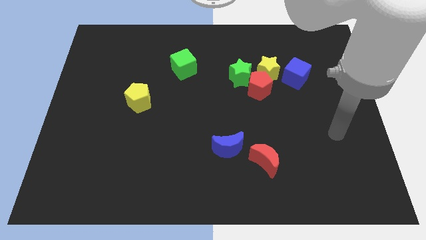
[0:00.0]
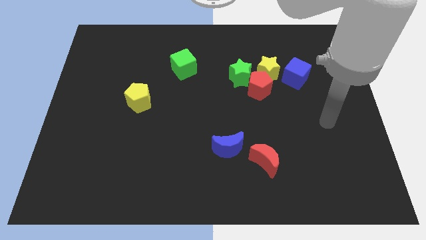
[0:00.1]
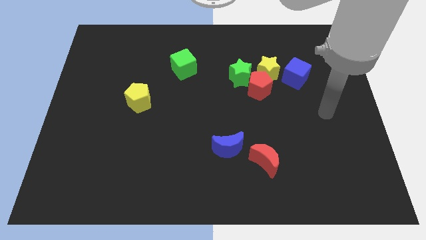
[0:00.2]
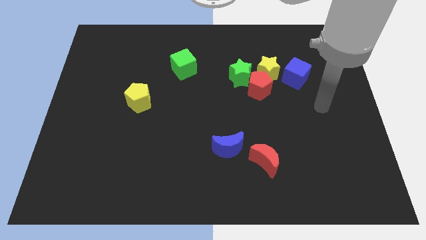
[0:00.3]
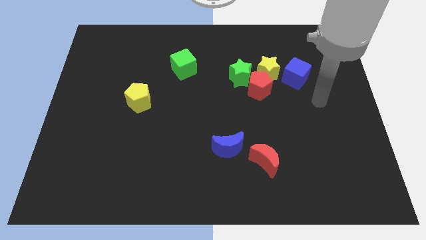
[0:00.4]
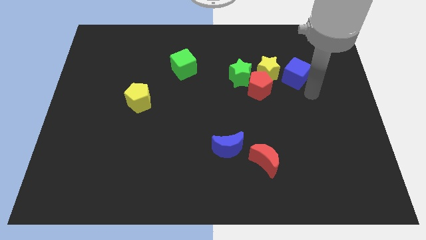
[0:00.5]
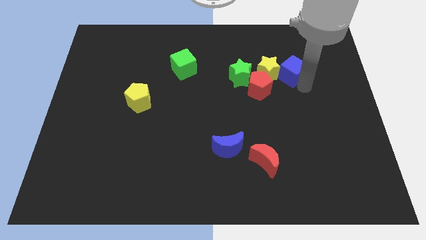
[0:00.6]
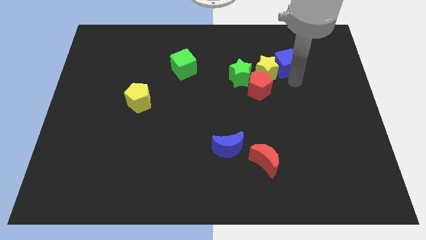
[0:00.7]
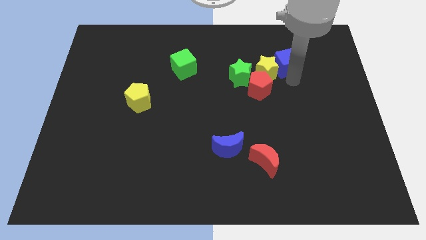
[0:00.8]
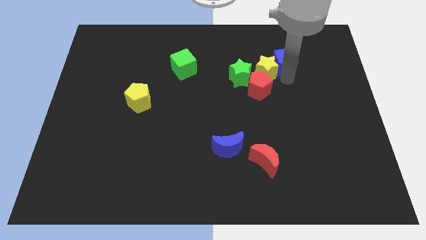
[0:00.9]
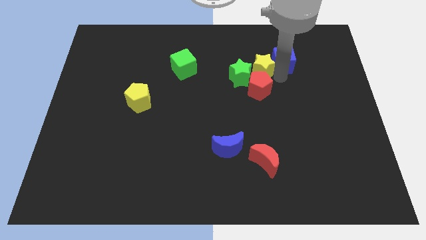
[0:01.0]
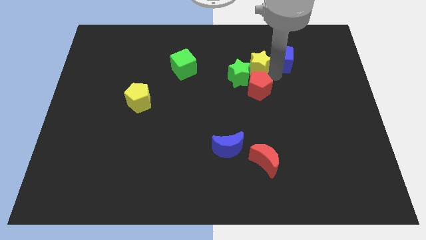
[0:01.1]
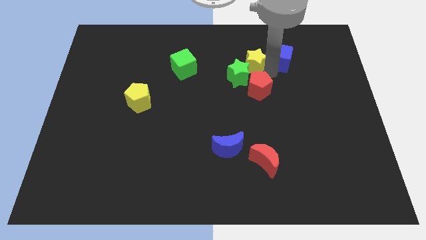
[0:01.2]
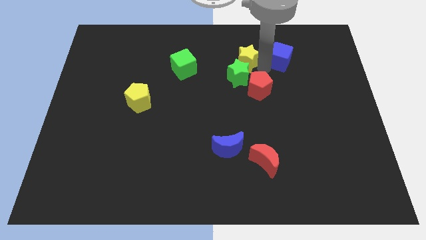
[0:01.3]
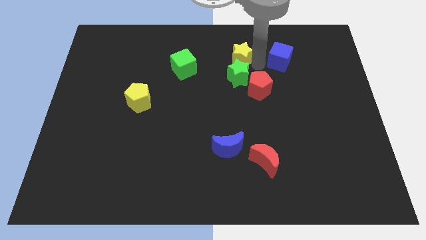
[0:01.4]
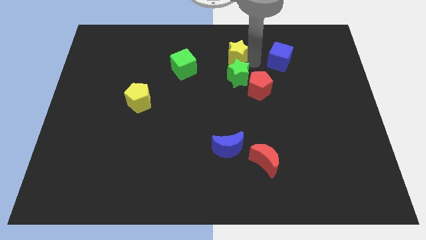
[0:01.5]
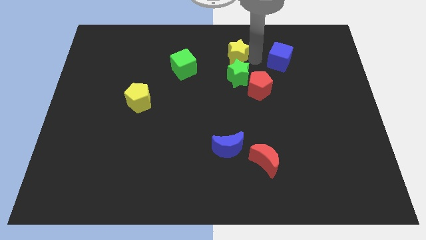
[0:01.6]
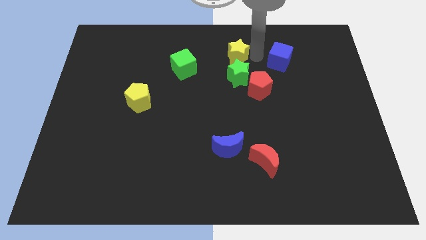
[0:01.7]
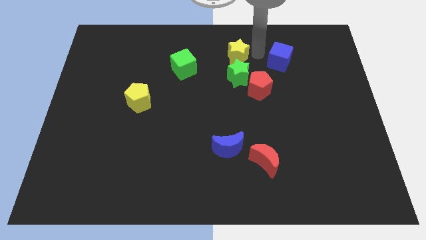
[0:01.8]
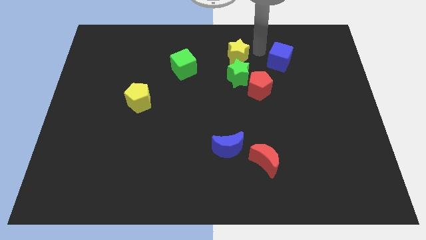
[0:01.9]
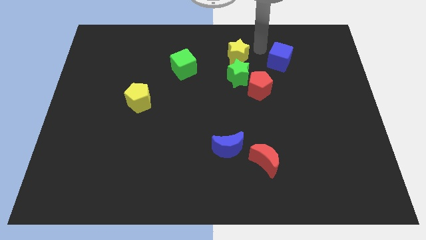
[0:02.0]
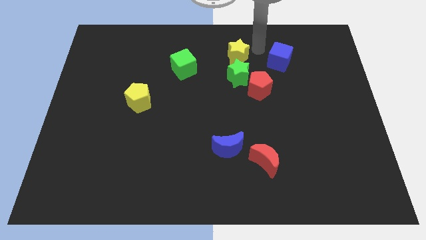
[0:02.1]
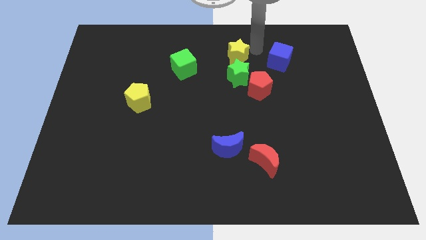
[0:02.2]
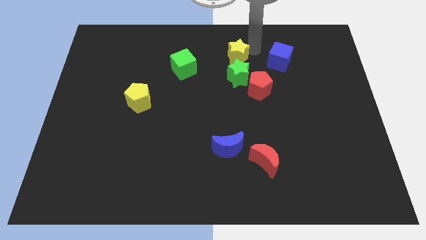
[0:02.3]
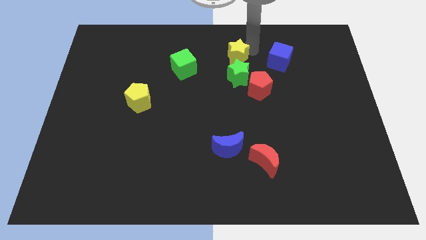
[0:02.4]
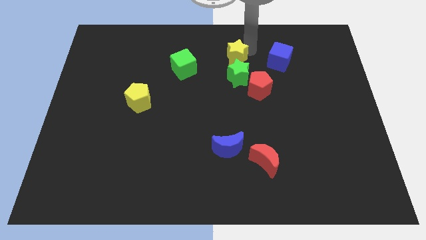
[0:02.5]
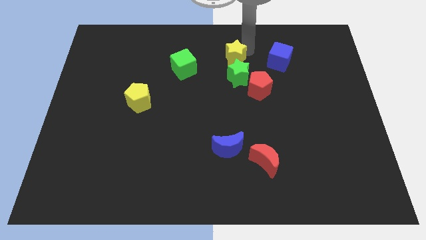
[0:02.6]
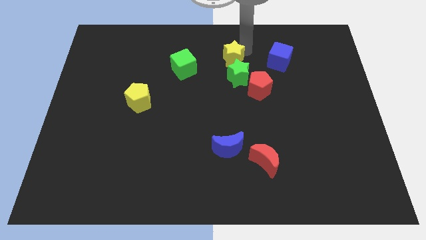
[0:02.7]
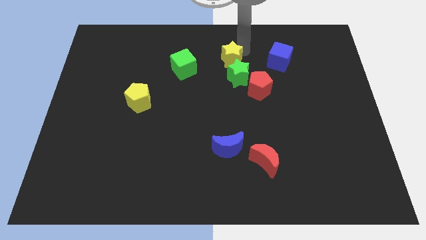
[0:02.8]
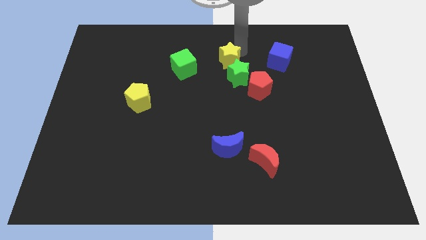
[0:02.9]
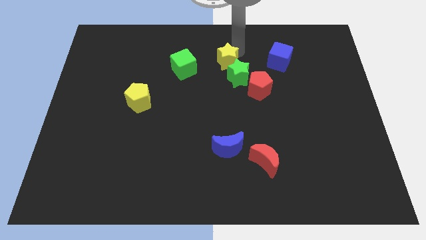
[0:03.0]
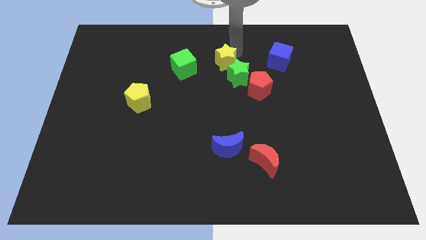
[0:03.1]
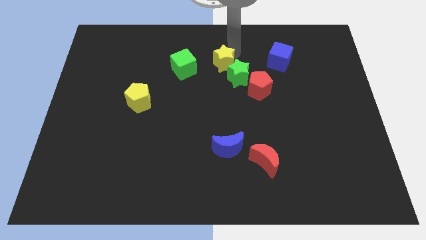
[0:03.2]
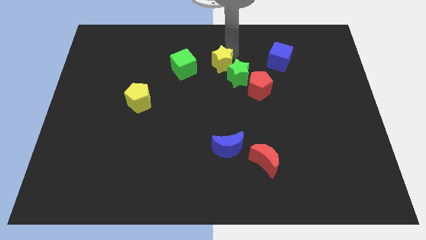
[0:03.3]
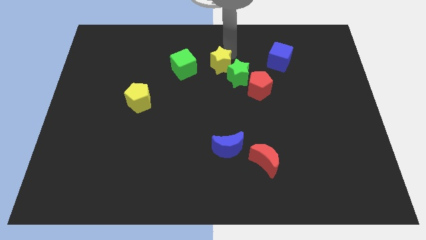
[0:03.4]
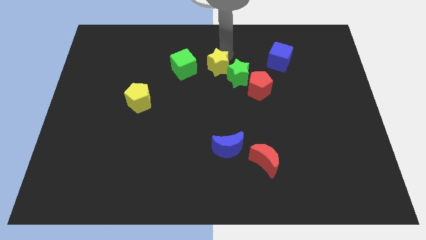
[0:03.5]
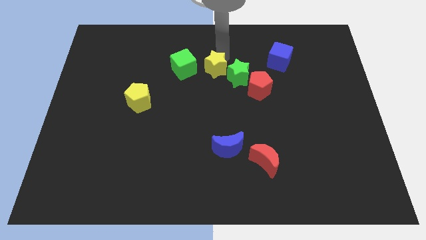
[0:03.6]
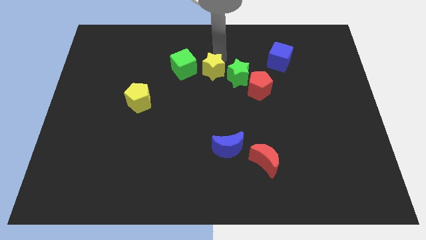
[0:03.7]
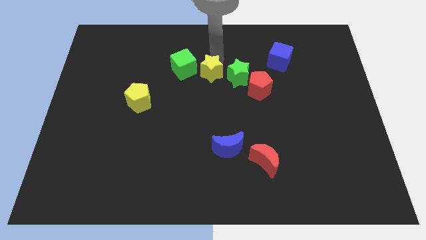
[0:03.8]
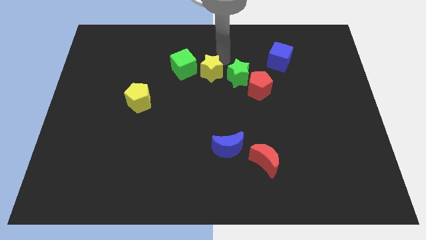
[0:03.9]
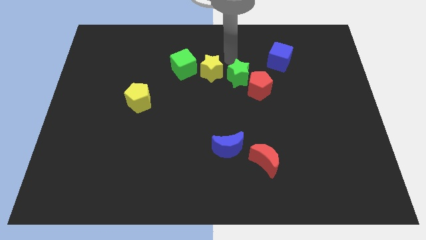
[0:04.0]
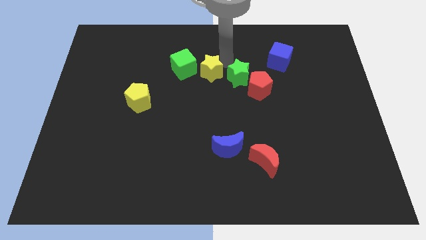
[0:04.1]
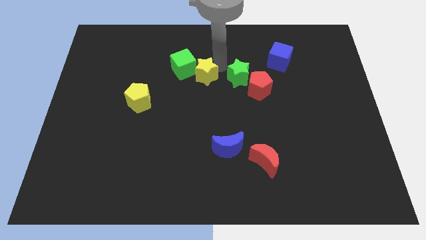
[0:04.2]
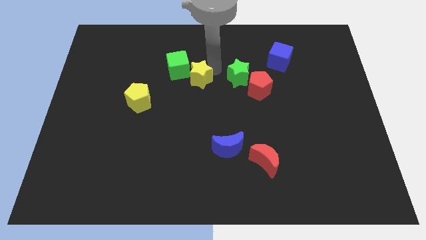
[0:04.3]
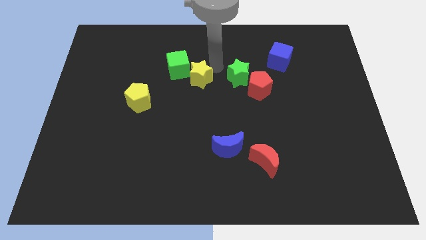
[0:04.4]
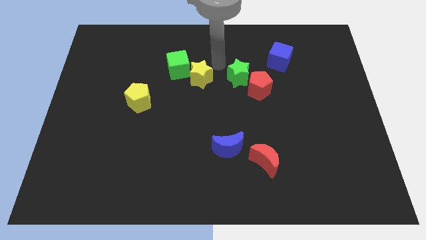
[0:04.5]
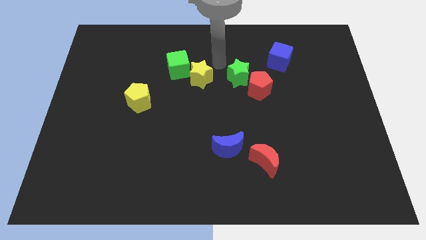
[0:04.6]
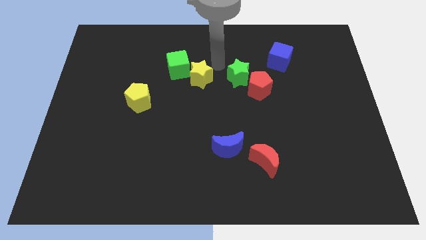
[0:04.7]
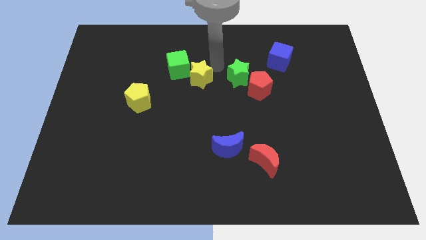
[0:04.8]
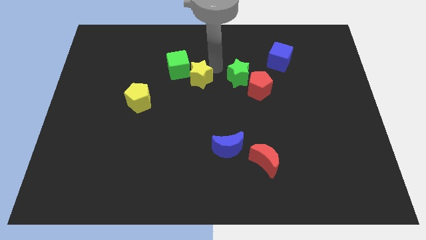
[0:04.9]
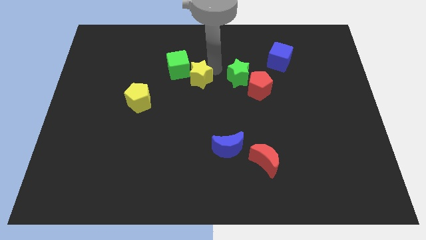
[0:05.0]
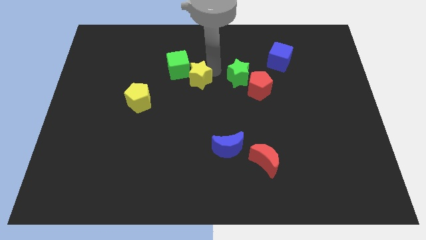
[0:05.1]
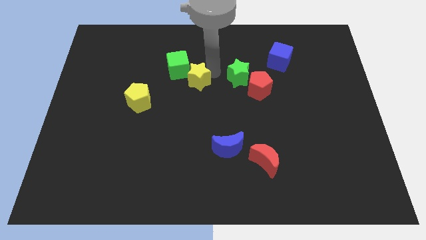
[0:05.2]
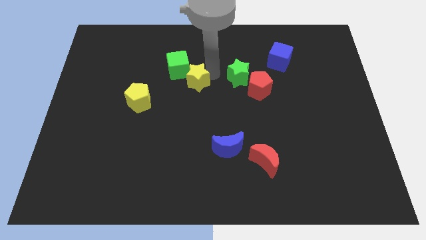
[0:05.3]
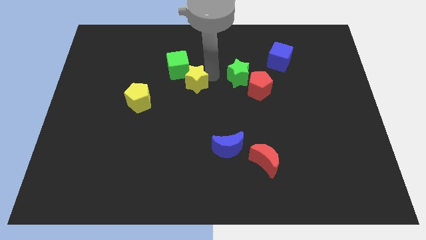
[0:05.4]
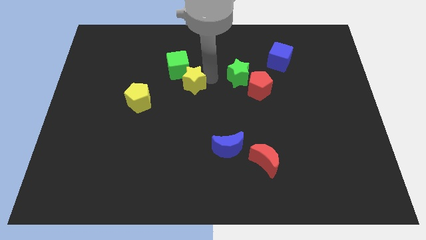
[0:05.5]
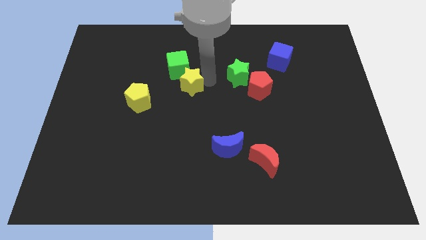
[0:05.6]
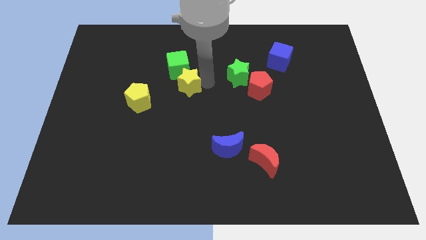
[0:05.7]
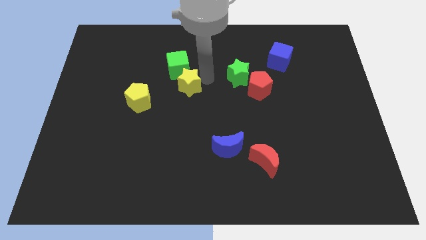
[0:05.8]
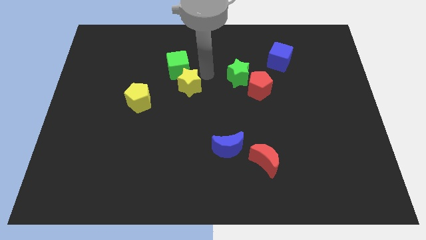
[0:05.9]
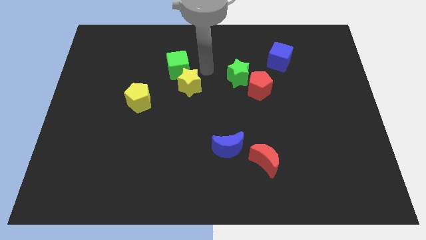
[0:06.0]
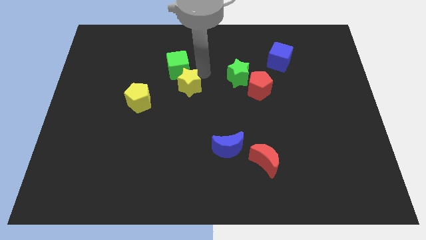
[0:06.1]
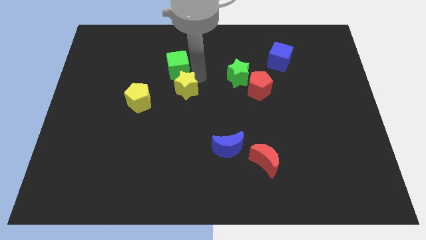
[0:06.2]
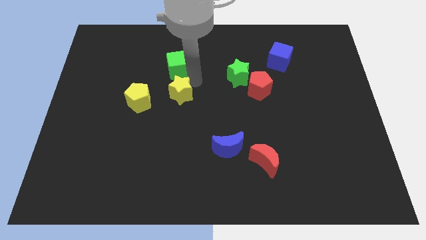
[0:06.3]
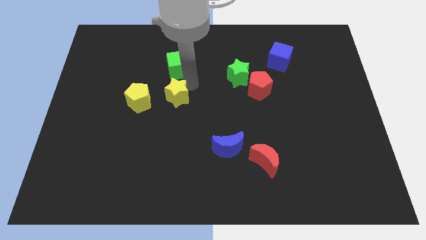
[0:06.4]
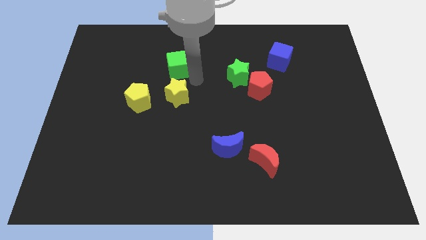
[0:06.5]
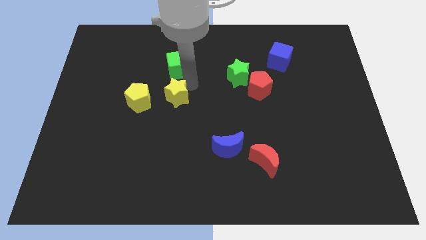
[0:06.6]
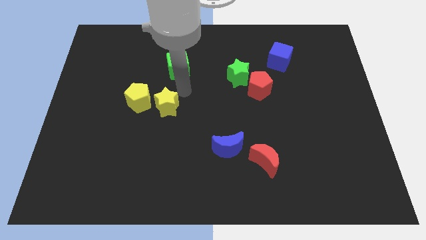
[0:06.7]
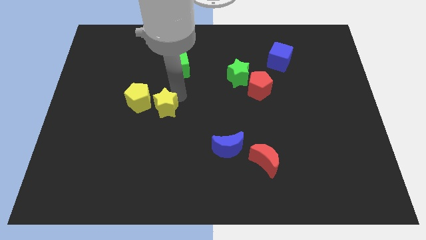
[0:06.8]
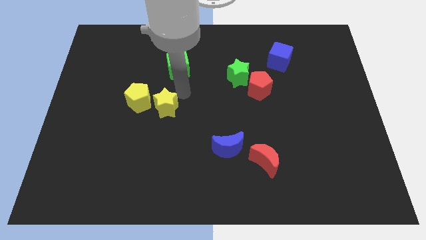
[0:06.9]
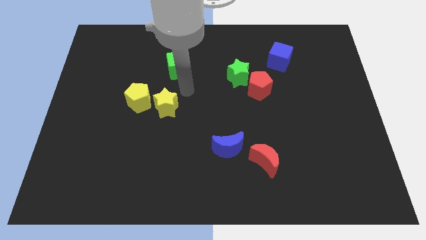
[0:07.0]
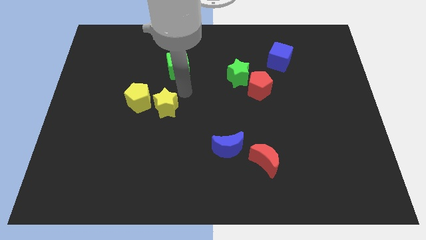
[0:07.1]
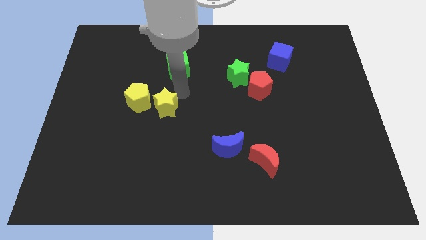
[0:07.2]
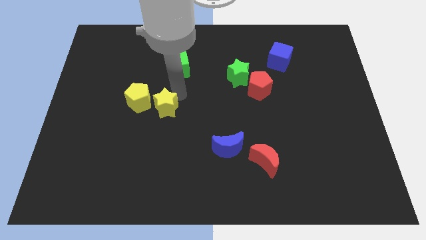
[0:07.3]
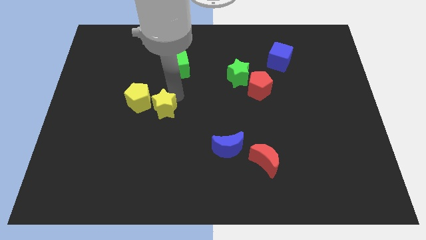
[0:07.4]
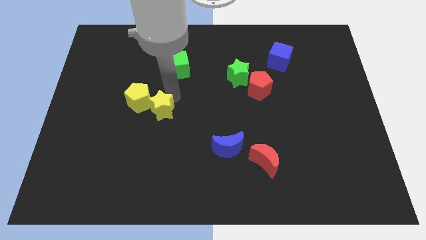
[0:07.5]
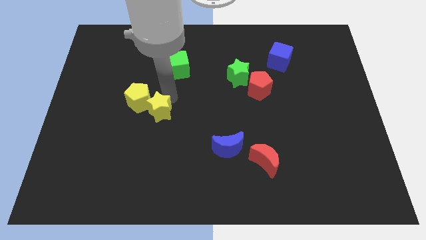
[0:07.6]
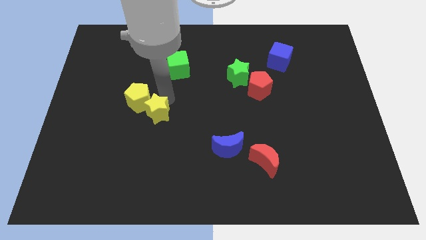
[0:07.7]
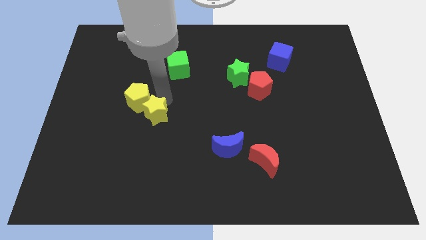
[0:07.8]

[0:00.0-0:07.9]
push the yellow star to the bottom of the yellow pentagon
